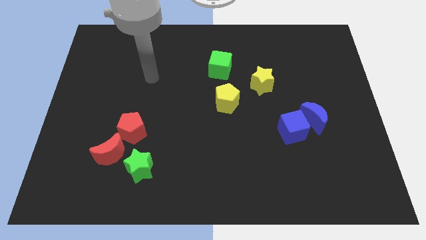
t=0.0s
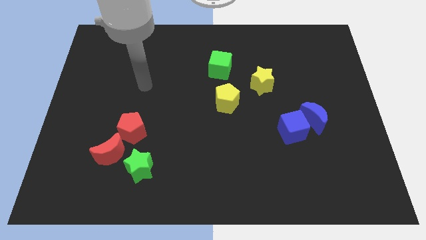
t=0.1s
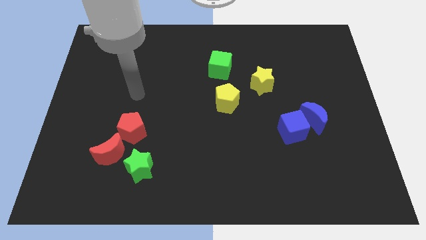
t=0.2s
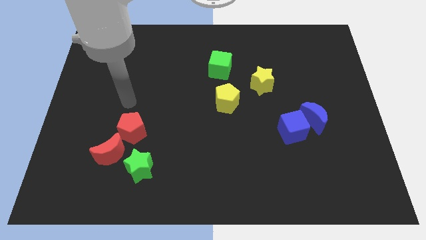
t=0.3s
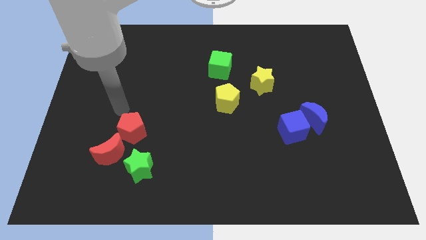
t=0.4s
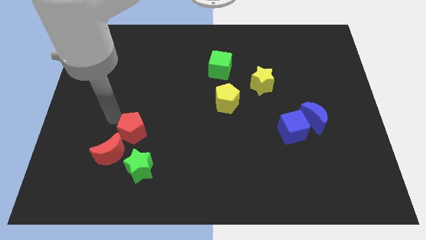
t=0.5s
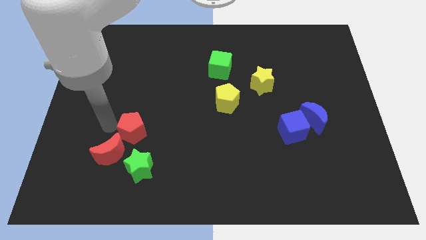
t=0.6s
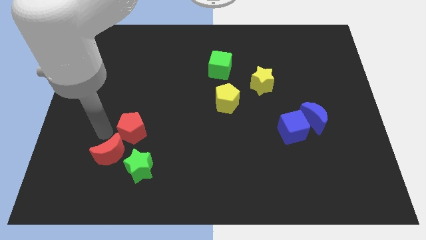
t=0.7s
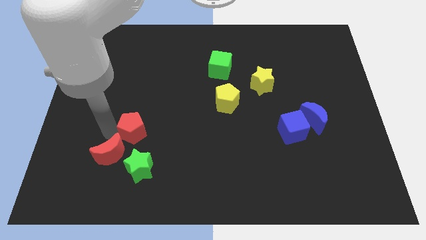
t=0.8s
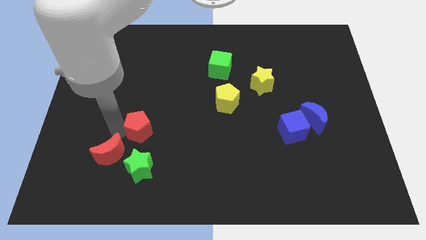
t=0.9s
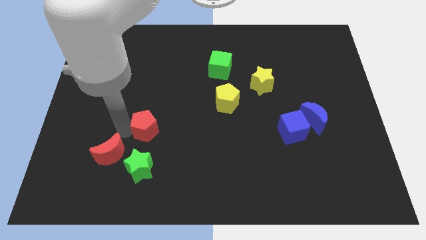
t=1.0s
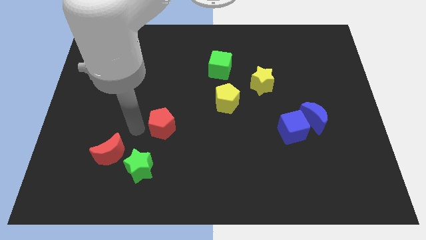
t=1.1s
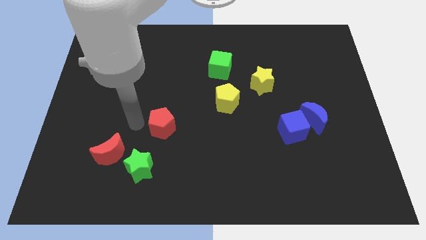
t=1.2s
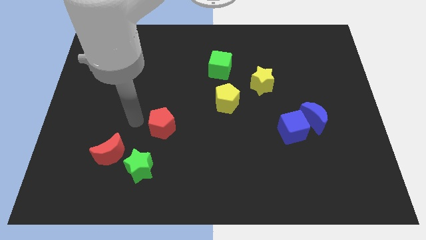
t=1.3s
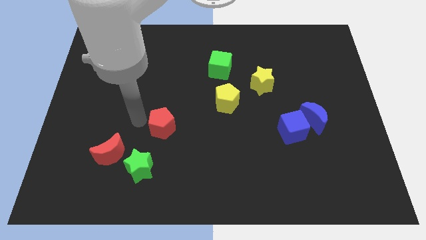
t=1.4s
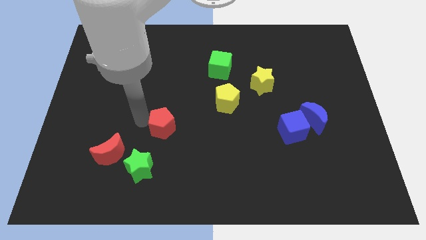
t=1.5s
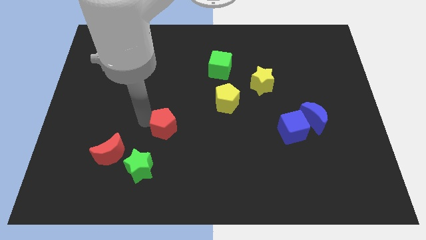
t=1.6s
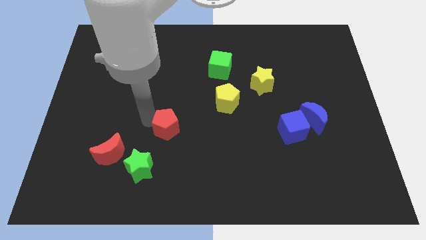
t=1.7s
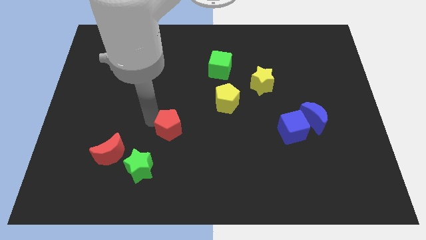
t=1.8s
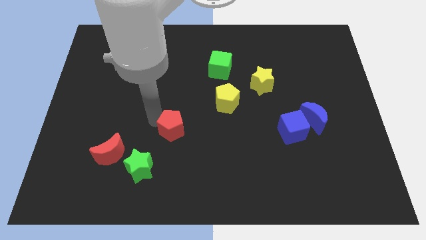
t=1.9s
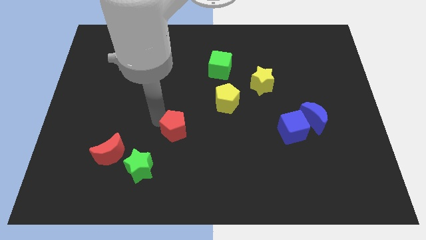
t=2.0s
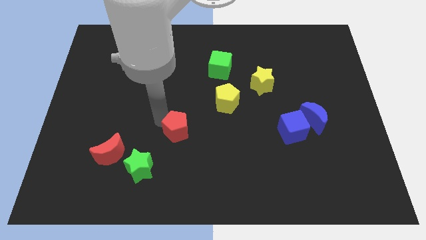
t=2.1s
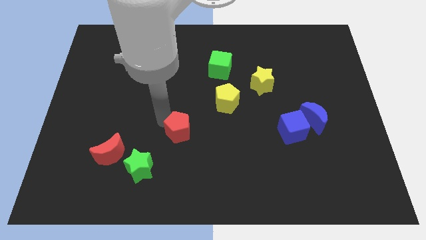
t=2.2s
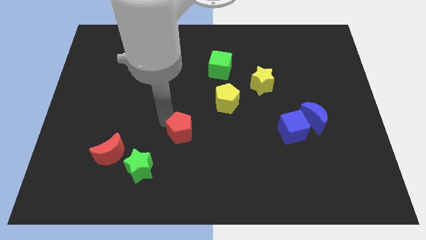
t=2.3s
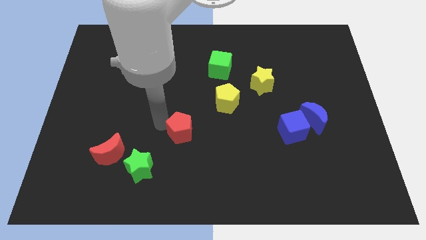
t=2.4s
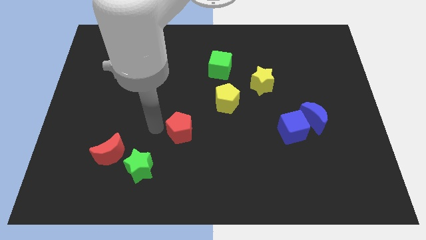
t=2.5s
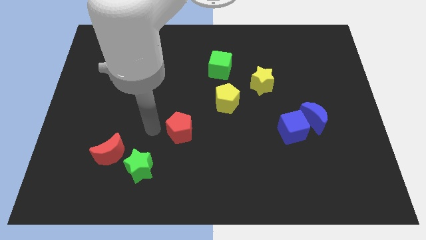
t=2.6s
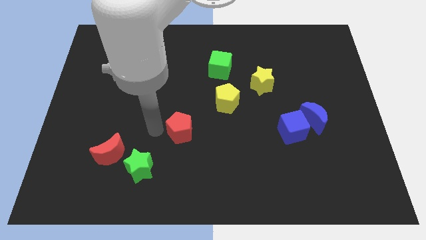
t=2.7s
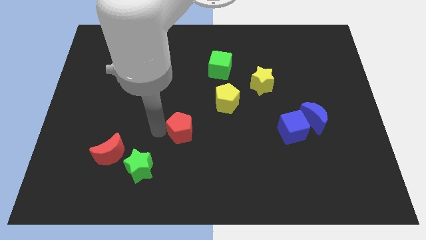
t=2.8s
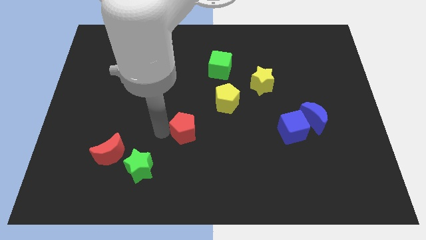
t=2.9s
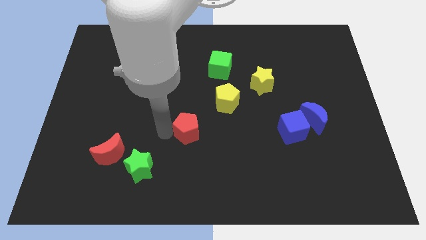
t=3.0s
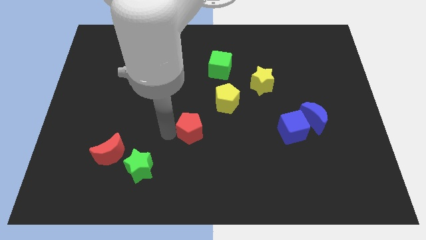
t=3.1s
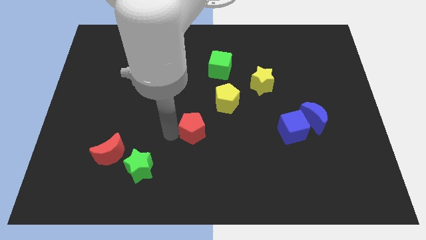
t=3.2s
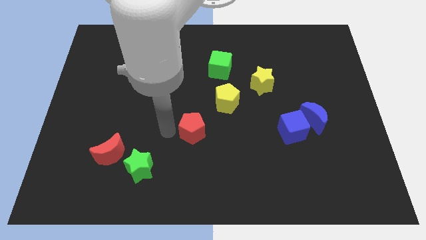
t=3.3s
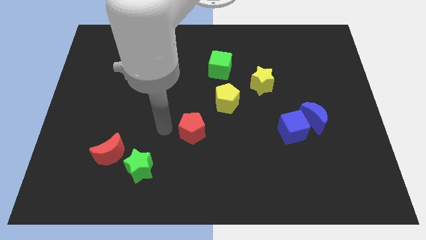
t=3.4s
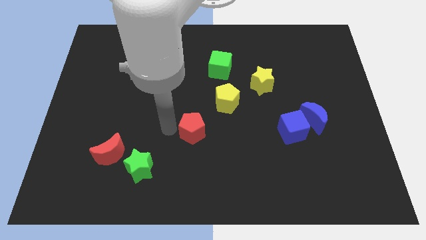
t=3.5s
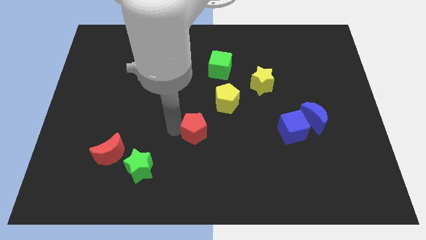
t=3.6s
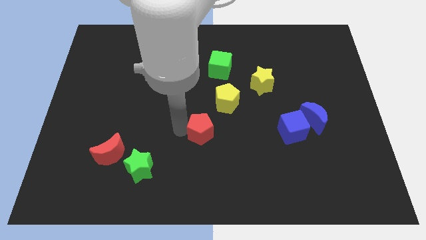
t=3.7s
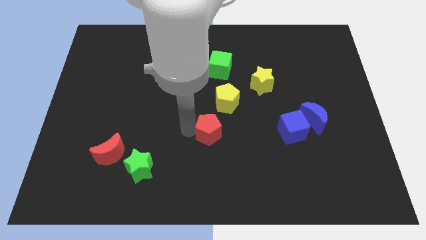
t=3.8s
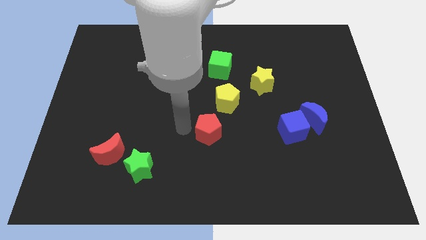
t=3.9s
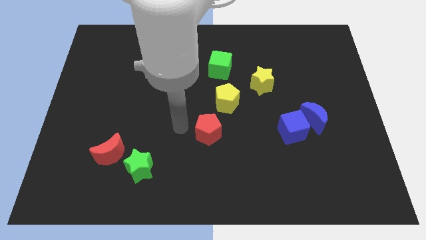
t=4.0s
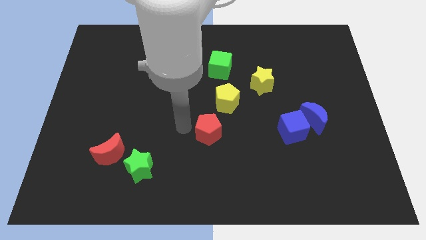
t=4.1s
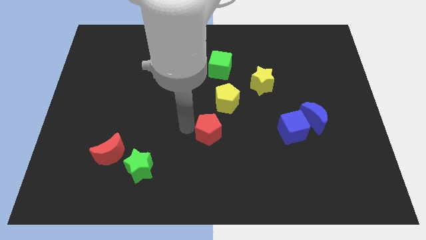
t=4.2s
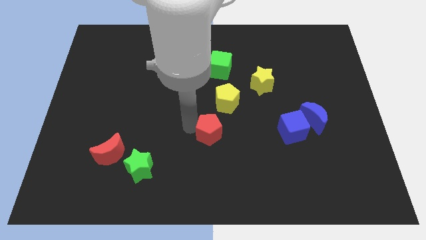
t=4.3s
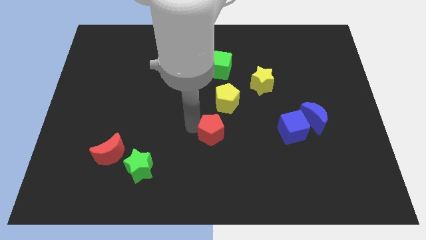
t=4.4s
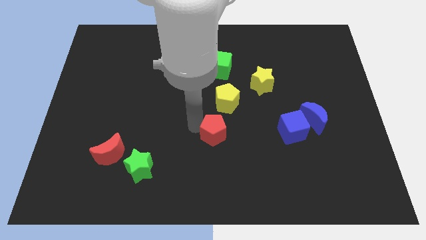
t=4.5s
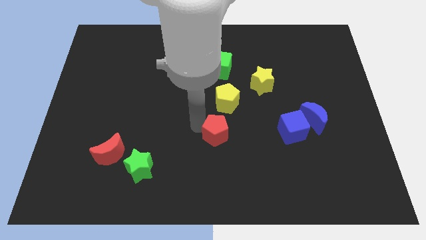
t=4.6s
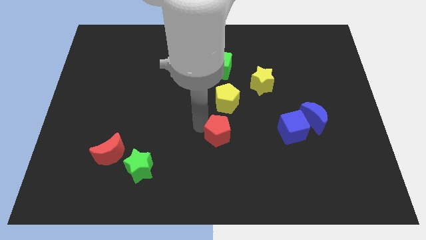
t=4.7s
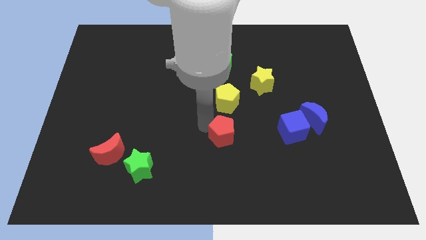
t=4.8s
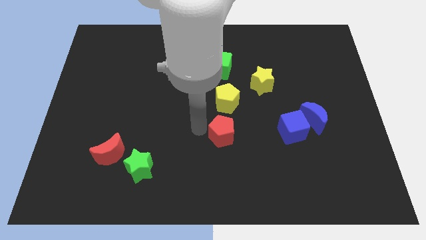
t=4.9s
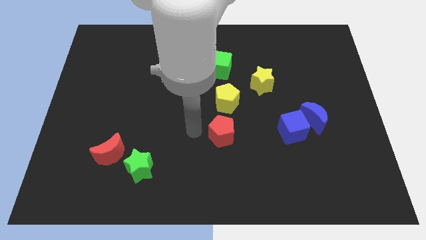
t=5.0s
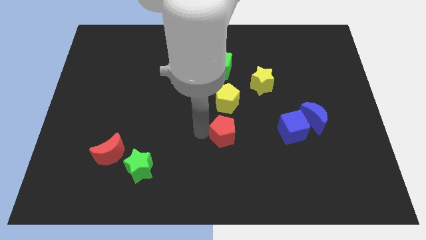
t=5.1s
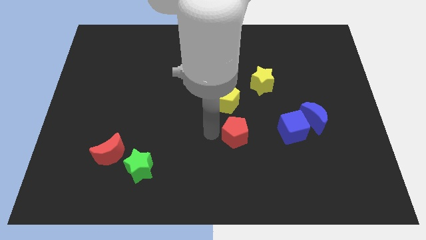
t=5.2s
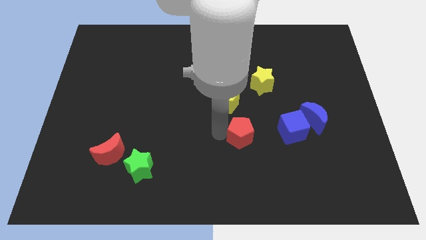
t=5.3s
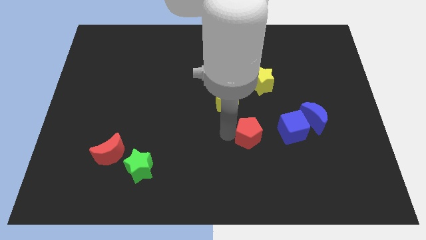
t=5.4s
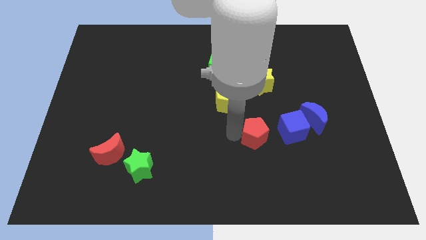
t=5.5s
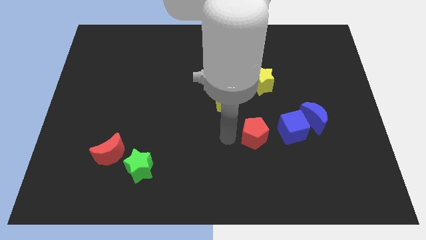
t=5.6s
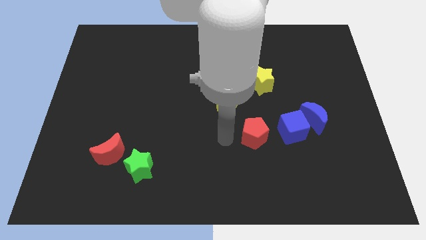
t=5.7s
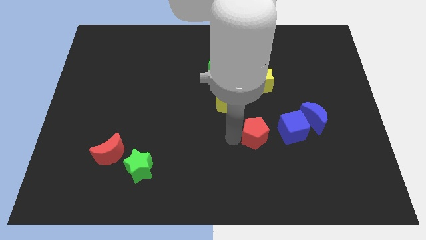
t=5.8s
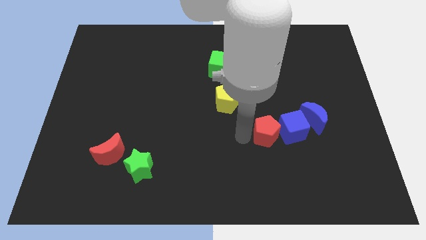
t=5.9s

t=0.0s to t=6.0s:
push the red pentagon towards the blue cube

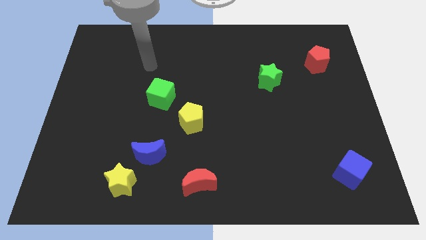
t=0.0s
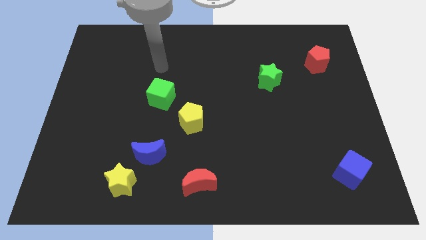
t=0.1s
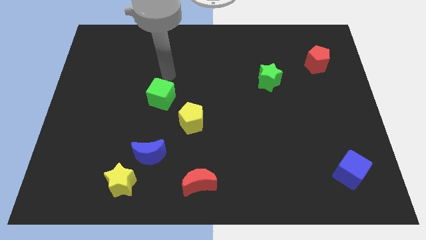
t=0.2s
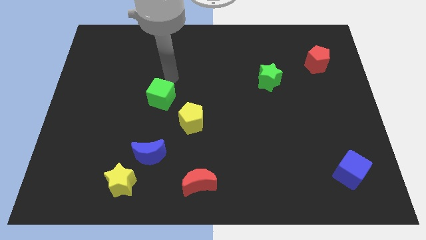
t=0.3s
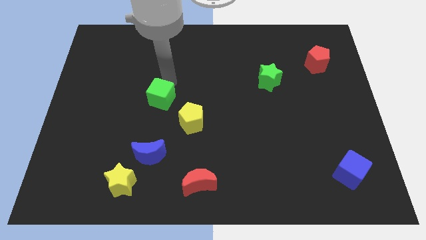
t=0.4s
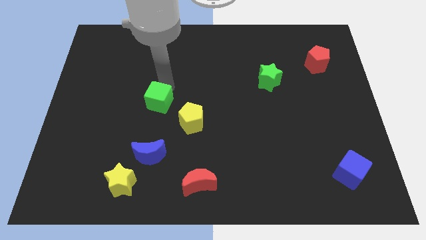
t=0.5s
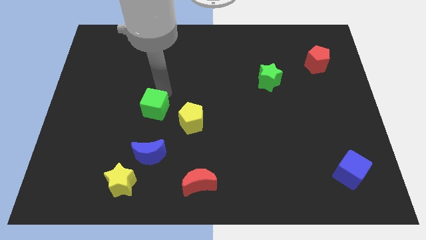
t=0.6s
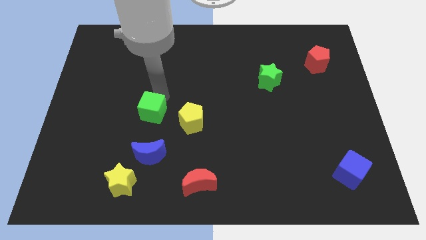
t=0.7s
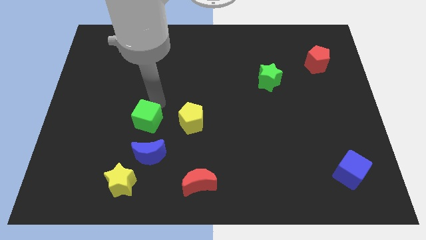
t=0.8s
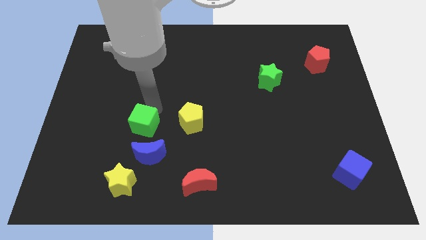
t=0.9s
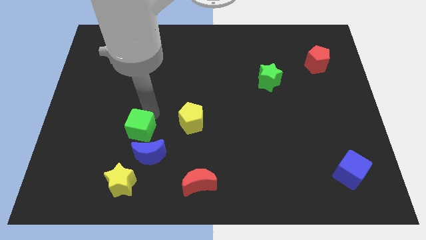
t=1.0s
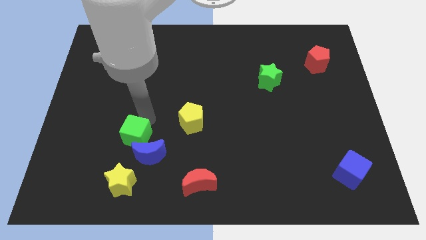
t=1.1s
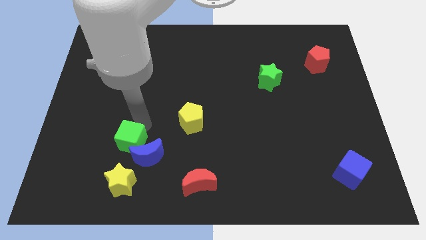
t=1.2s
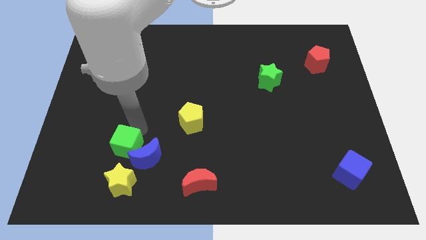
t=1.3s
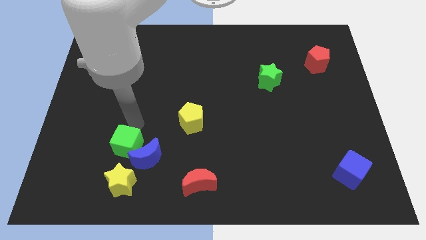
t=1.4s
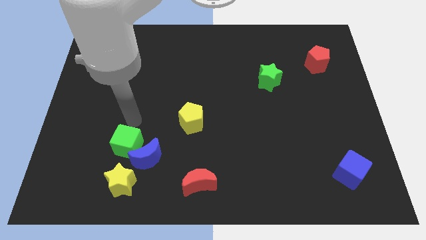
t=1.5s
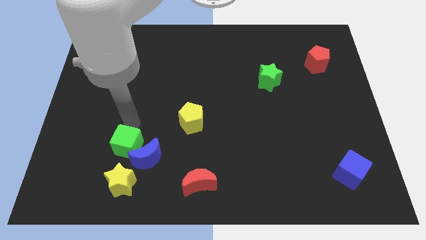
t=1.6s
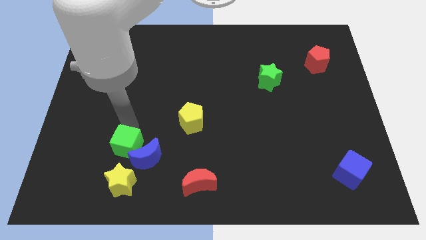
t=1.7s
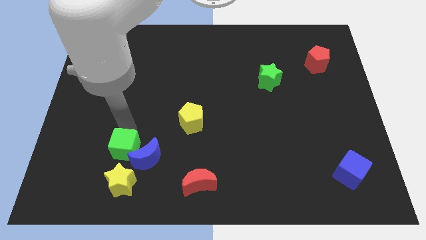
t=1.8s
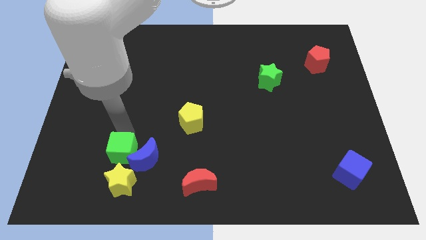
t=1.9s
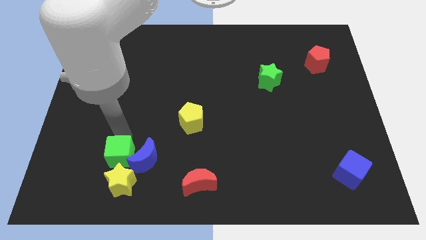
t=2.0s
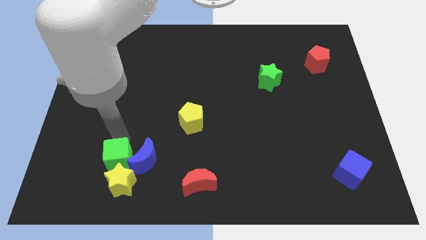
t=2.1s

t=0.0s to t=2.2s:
move the green cube to the yellow star

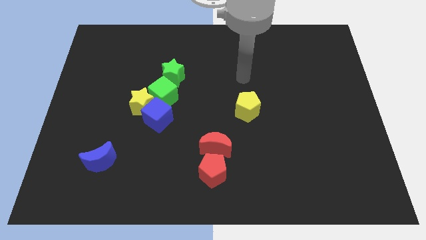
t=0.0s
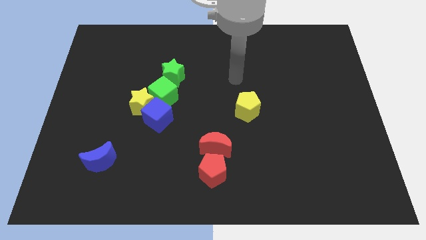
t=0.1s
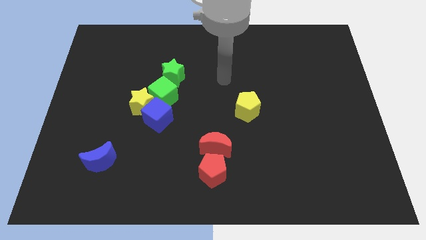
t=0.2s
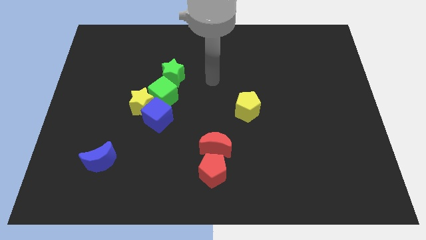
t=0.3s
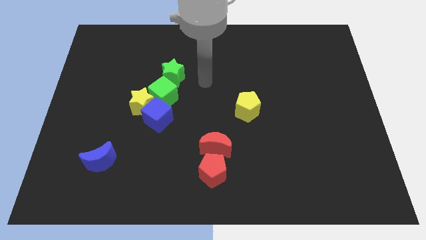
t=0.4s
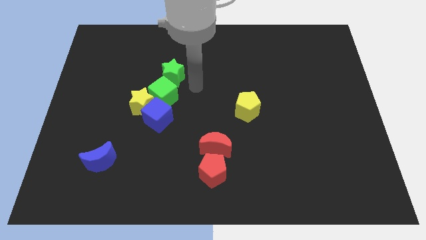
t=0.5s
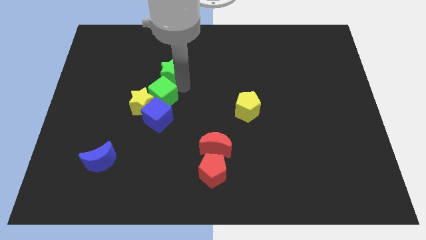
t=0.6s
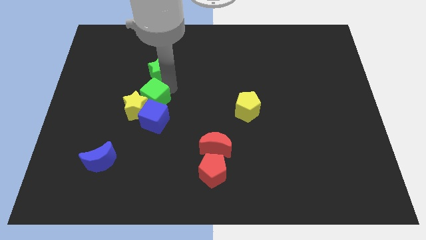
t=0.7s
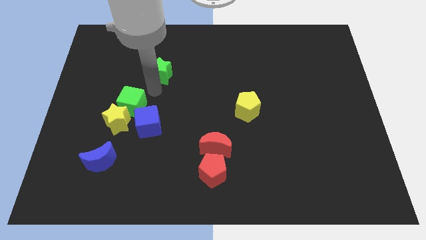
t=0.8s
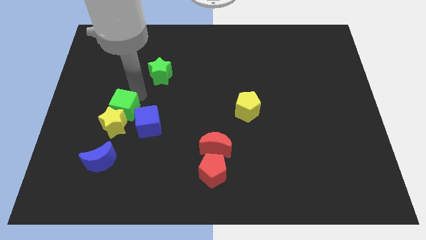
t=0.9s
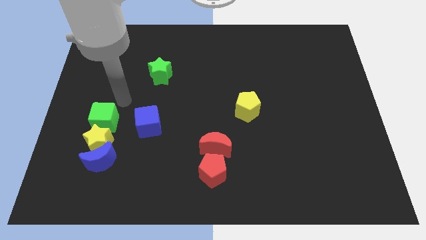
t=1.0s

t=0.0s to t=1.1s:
slide the yellow star close to the blue moon
